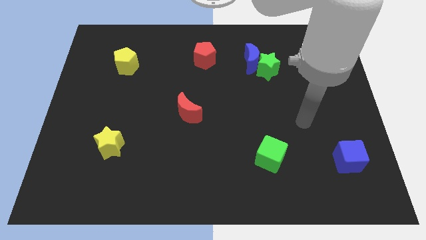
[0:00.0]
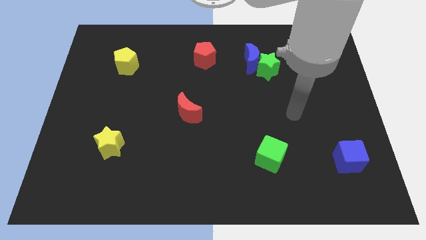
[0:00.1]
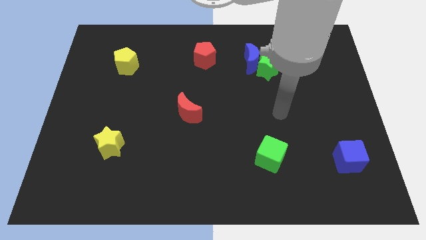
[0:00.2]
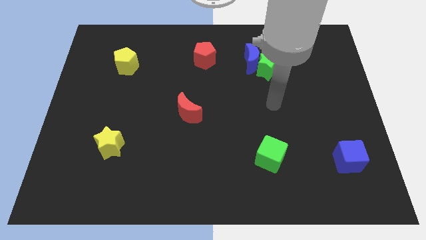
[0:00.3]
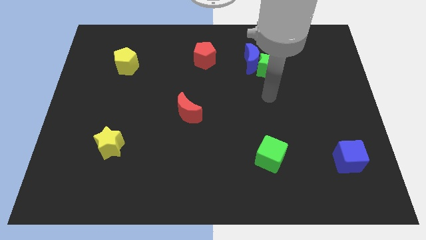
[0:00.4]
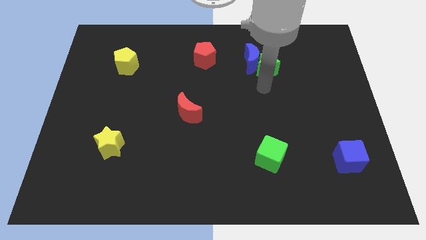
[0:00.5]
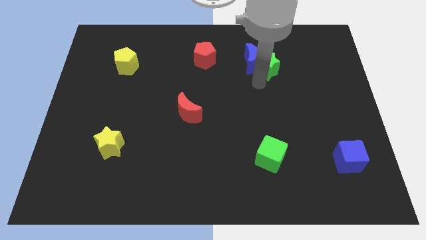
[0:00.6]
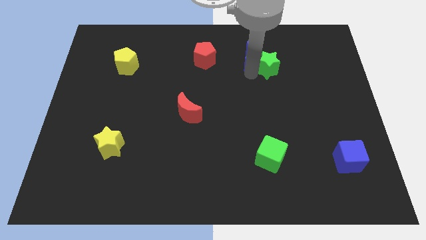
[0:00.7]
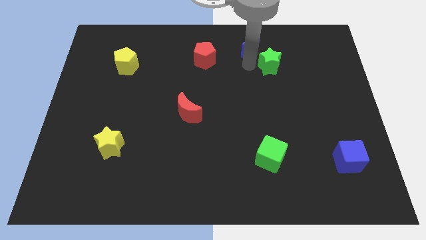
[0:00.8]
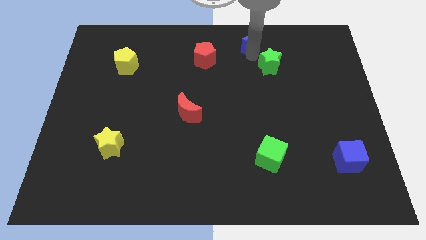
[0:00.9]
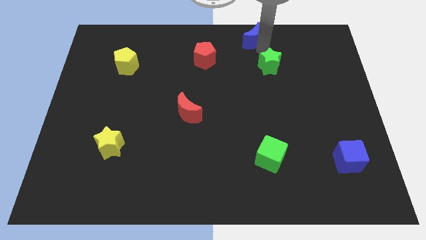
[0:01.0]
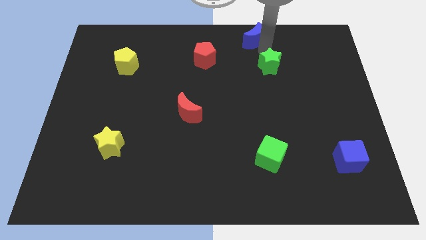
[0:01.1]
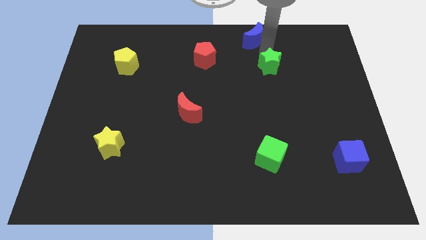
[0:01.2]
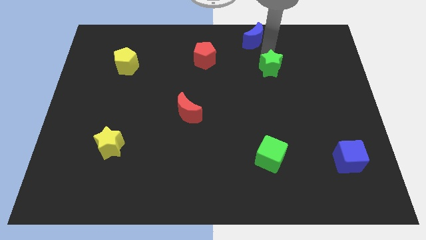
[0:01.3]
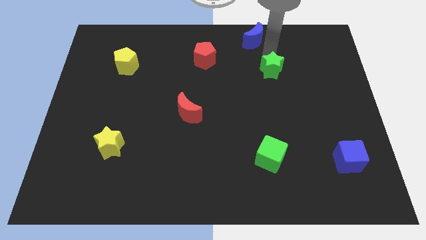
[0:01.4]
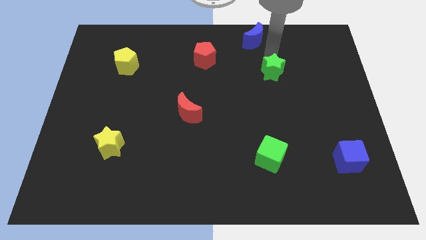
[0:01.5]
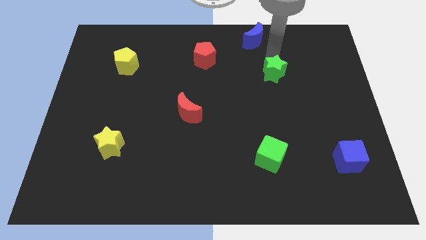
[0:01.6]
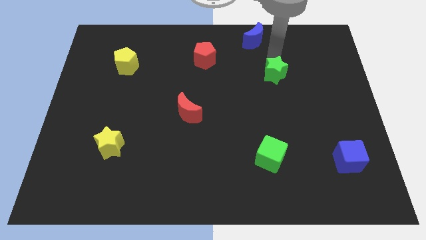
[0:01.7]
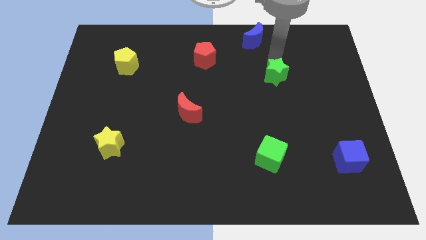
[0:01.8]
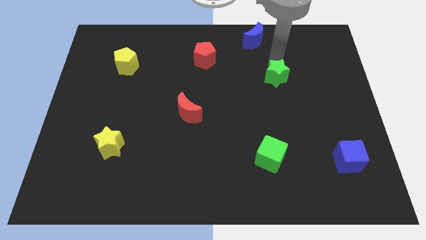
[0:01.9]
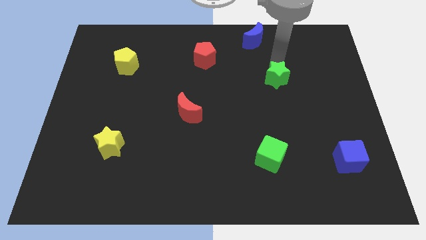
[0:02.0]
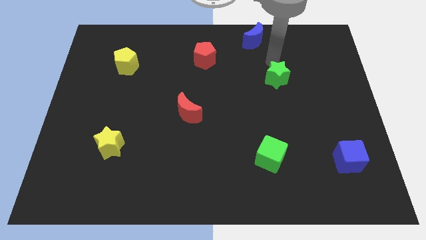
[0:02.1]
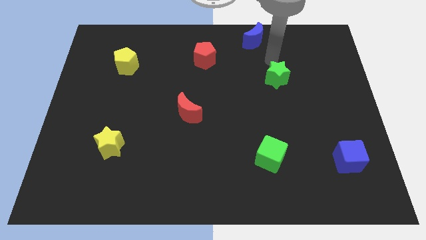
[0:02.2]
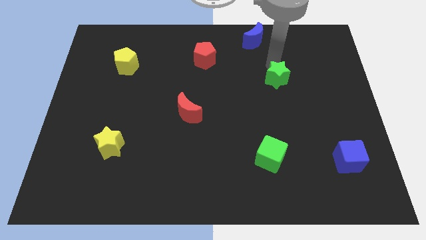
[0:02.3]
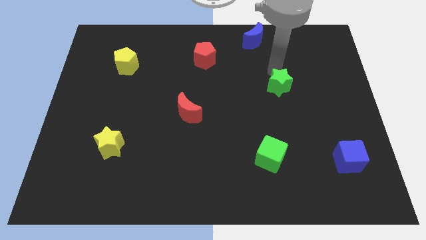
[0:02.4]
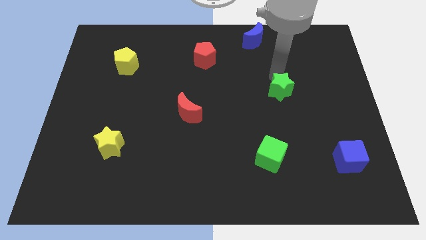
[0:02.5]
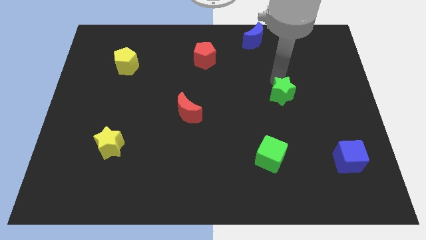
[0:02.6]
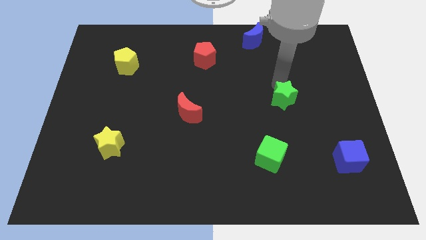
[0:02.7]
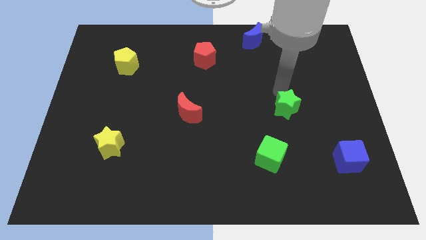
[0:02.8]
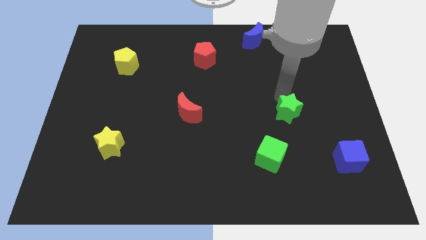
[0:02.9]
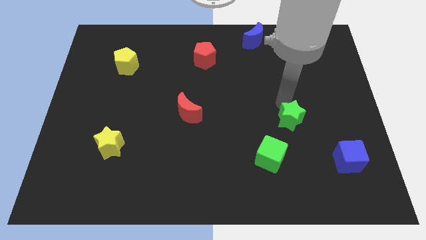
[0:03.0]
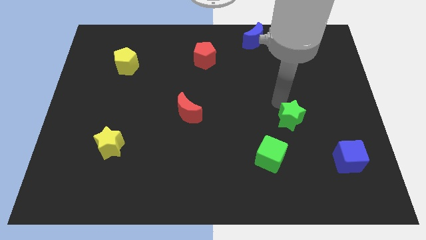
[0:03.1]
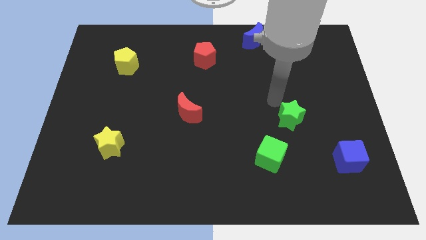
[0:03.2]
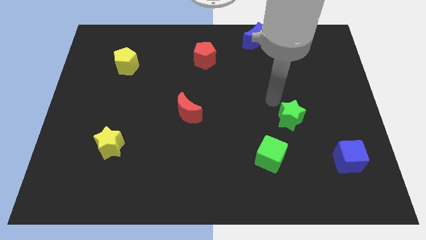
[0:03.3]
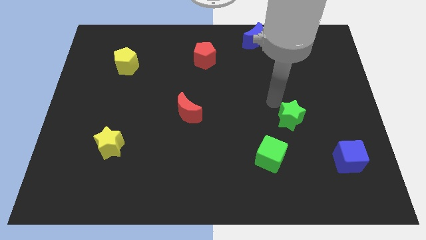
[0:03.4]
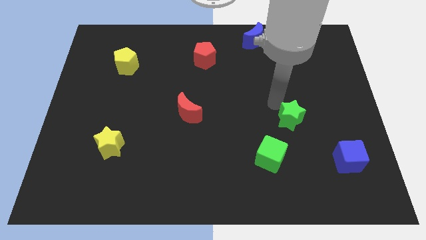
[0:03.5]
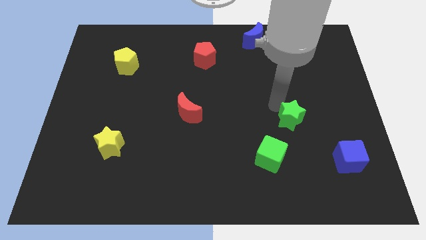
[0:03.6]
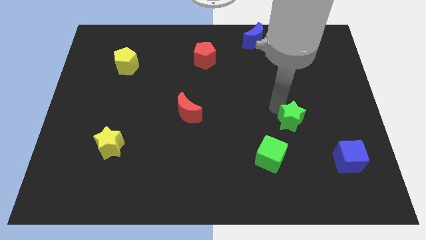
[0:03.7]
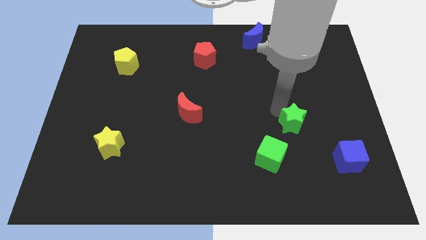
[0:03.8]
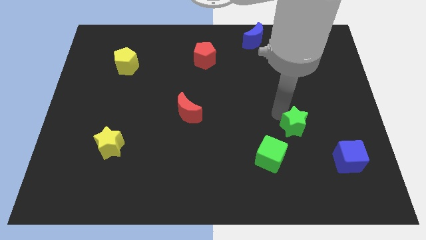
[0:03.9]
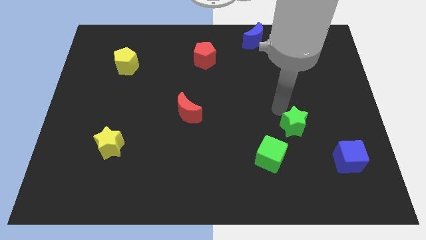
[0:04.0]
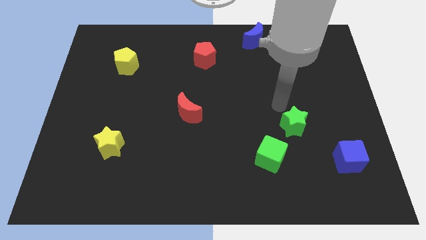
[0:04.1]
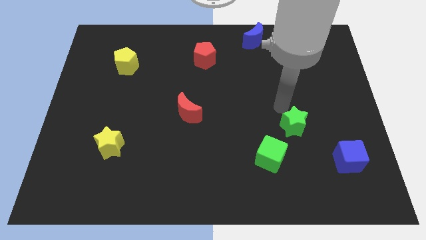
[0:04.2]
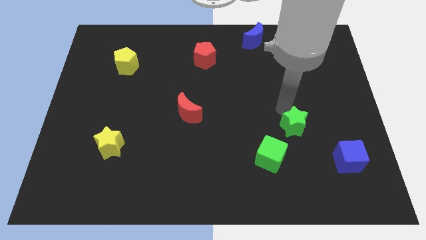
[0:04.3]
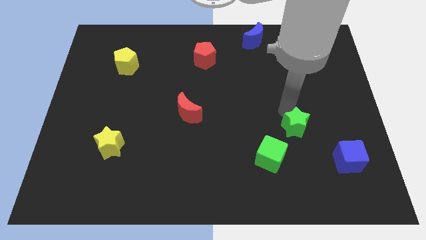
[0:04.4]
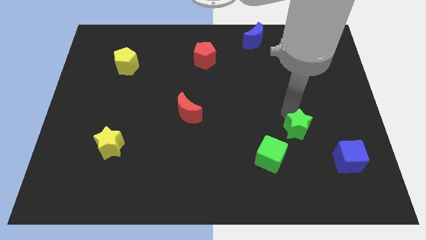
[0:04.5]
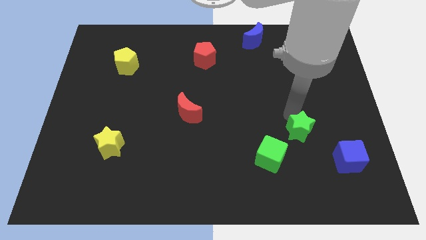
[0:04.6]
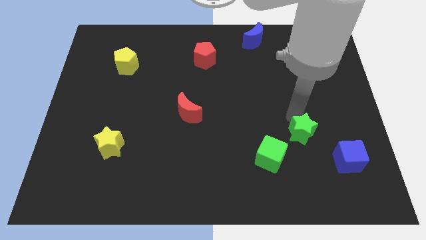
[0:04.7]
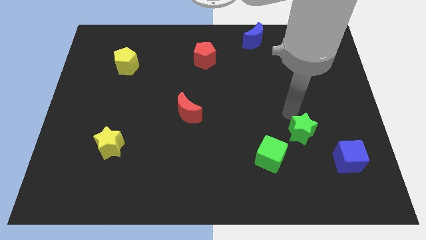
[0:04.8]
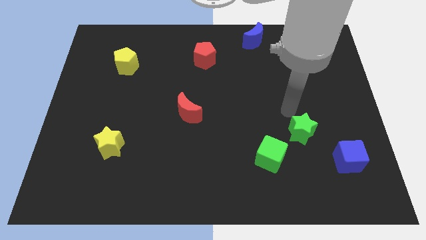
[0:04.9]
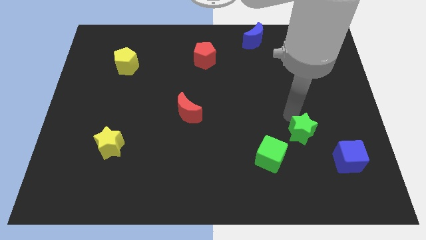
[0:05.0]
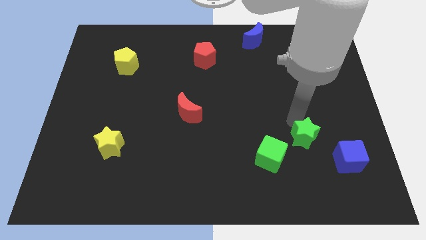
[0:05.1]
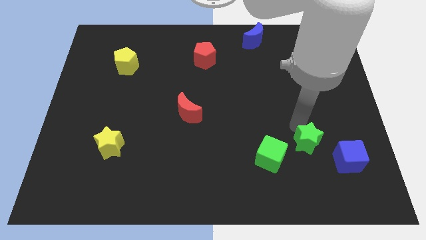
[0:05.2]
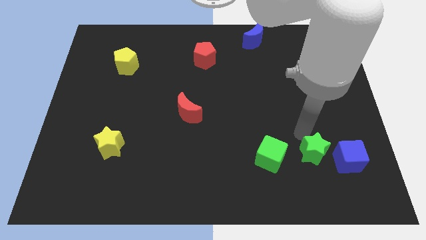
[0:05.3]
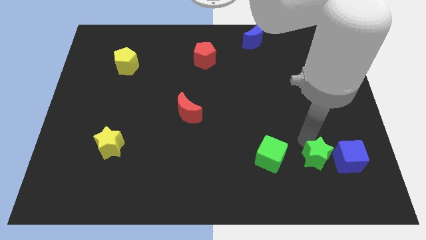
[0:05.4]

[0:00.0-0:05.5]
move the green star diagonally down and to the left of the blue cube

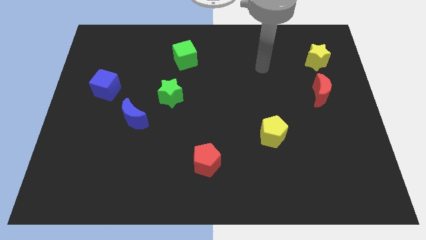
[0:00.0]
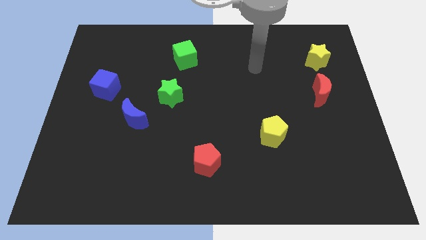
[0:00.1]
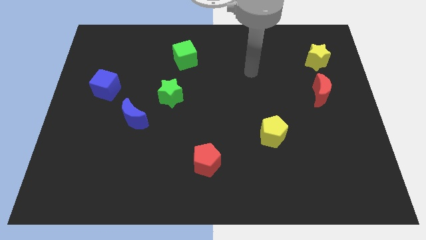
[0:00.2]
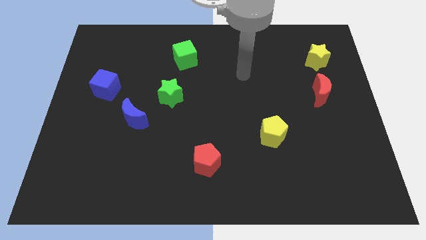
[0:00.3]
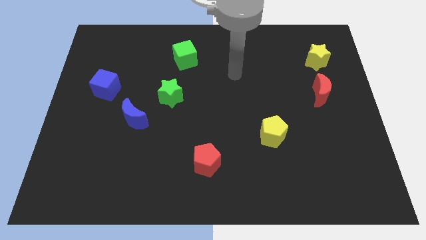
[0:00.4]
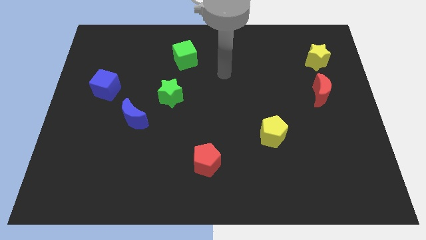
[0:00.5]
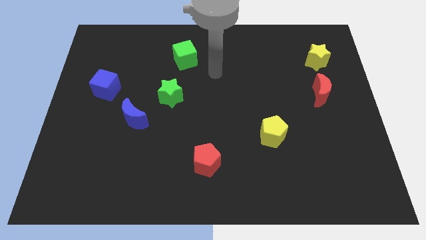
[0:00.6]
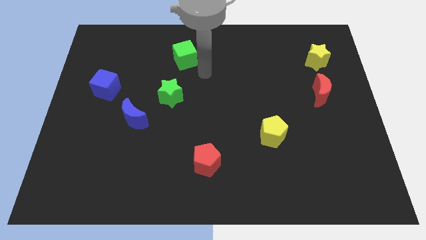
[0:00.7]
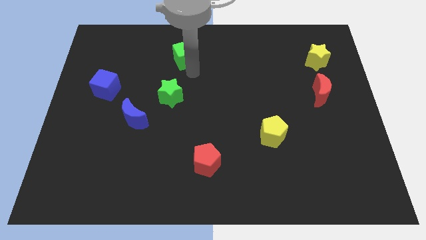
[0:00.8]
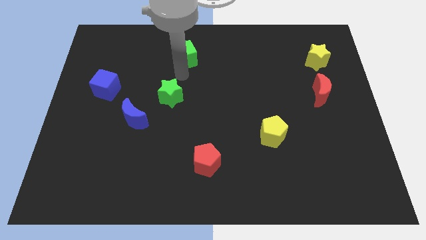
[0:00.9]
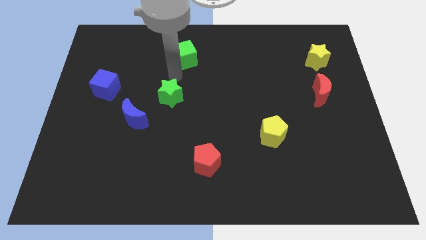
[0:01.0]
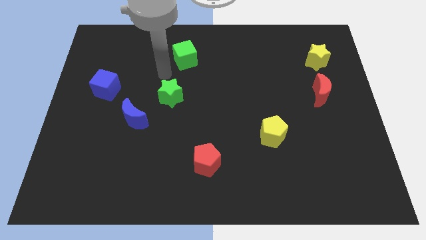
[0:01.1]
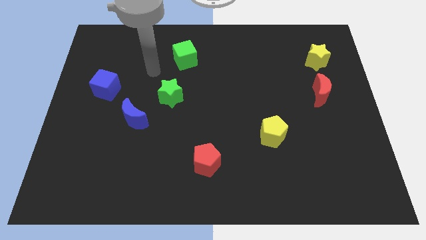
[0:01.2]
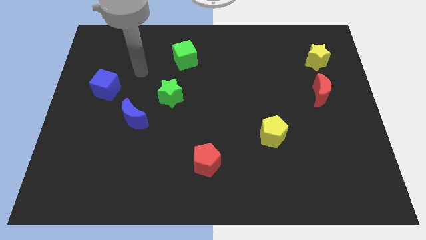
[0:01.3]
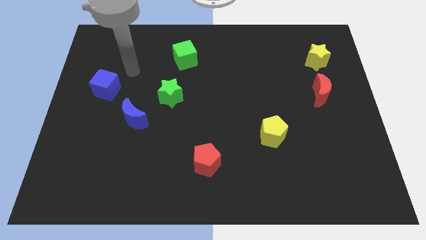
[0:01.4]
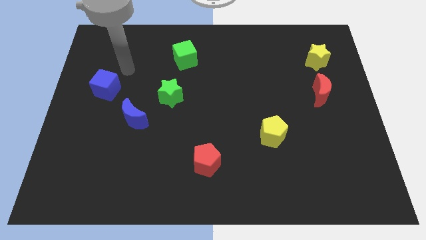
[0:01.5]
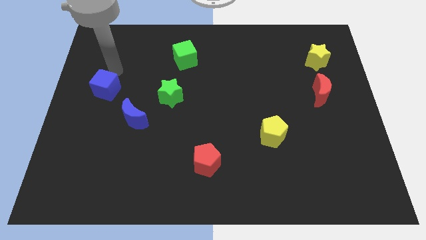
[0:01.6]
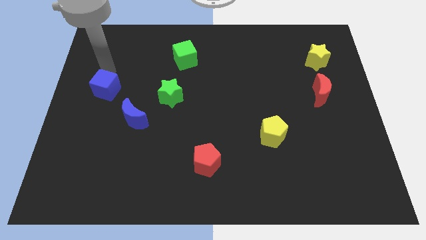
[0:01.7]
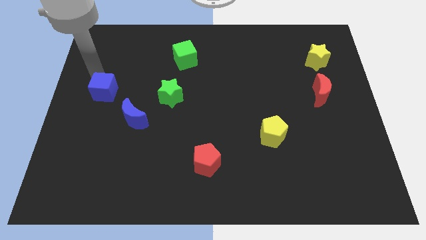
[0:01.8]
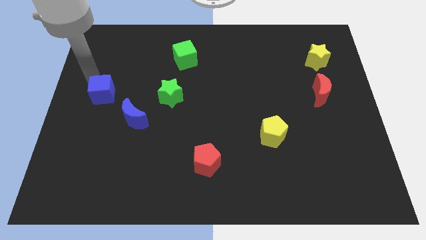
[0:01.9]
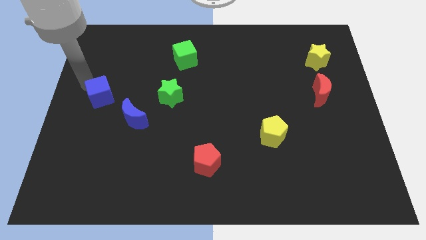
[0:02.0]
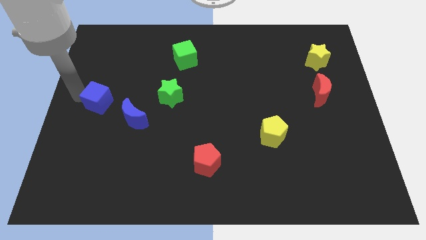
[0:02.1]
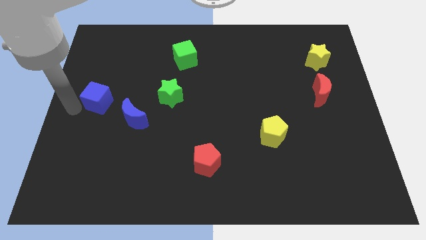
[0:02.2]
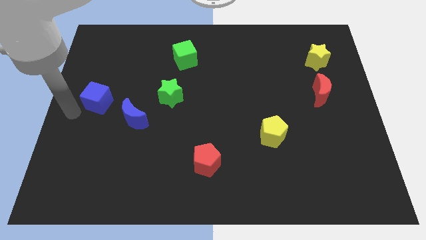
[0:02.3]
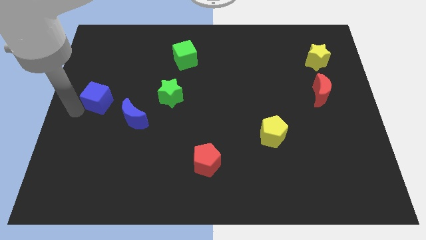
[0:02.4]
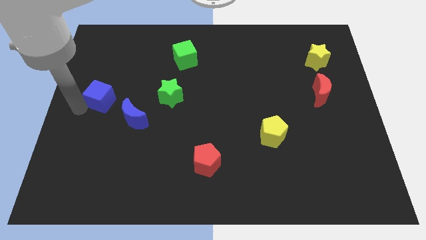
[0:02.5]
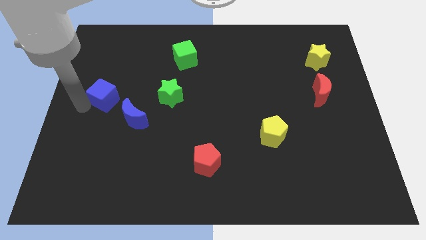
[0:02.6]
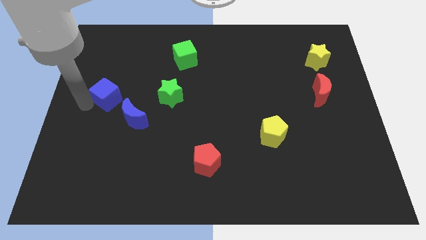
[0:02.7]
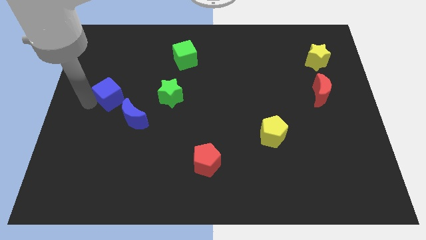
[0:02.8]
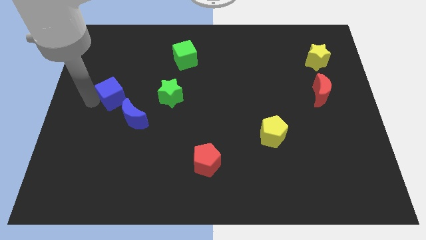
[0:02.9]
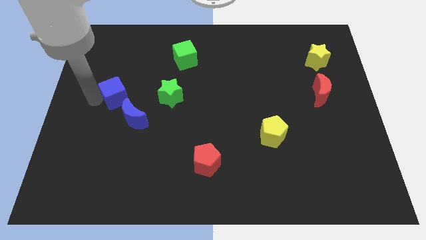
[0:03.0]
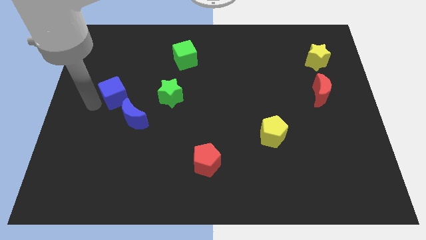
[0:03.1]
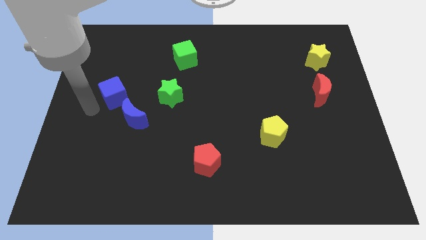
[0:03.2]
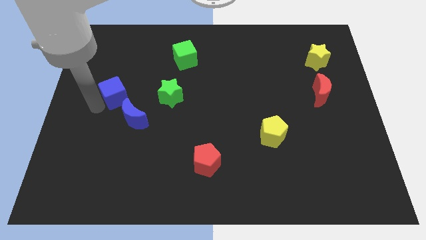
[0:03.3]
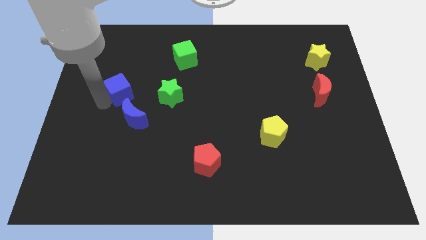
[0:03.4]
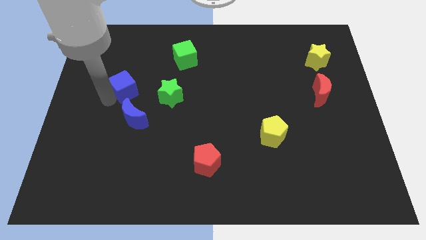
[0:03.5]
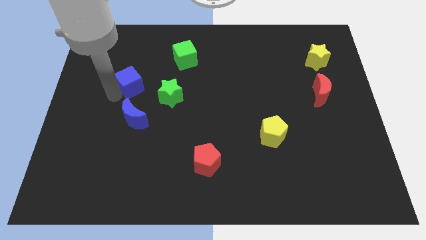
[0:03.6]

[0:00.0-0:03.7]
move the blue cube diagonally up and to the left of the green star
